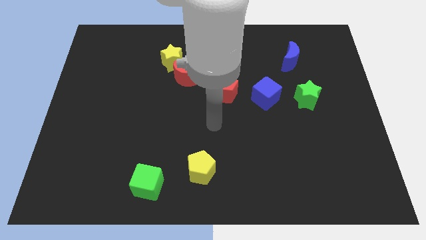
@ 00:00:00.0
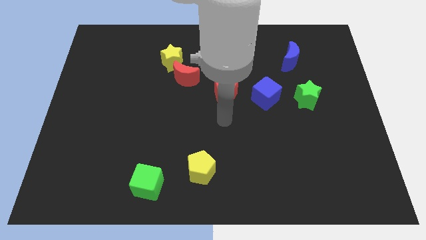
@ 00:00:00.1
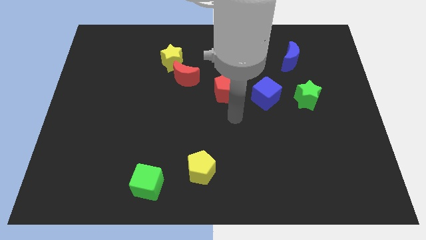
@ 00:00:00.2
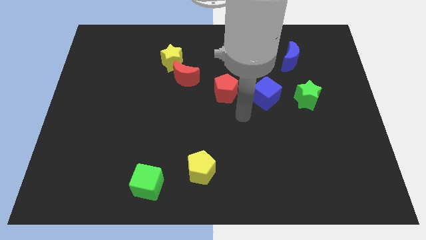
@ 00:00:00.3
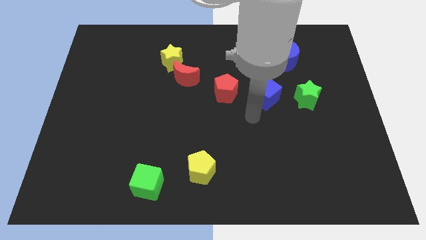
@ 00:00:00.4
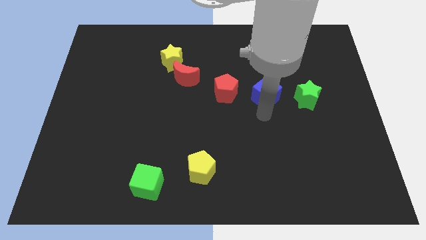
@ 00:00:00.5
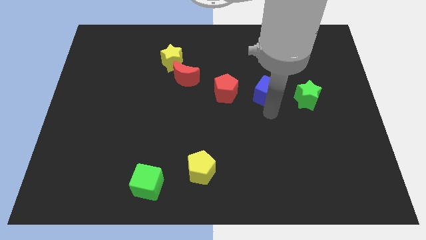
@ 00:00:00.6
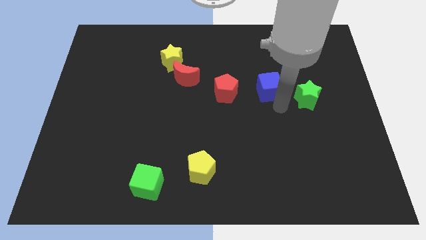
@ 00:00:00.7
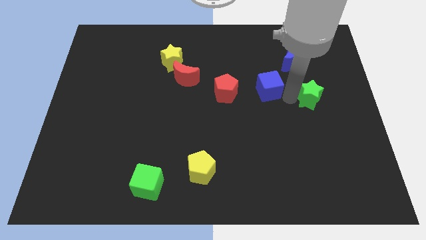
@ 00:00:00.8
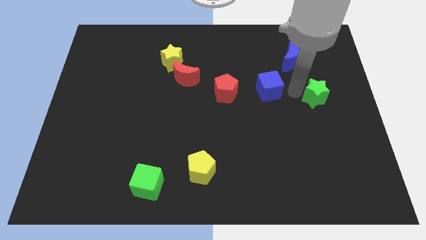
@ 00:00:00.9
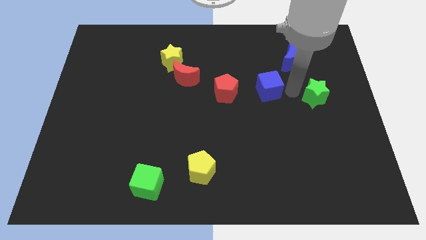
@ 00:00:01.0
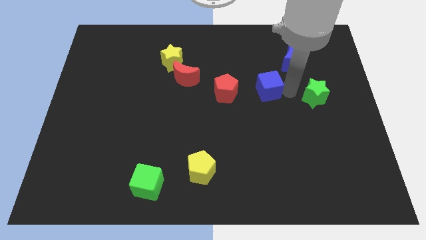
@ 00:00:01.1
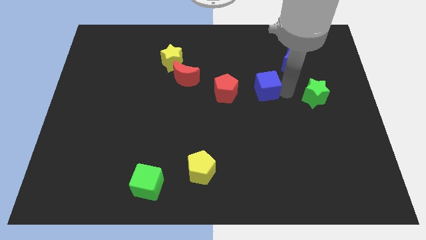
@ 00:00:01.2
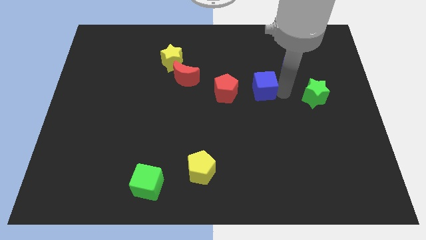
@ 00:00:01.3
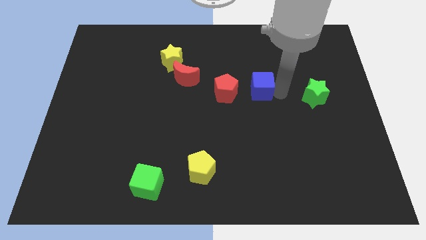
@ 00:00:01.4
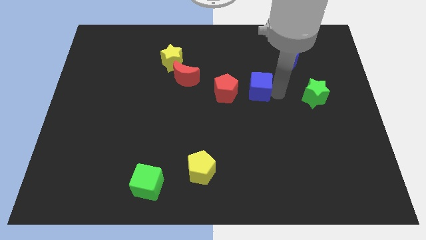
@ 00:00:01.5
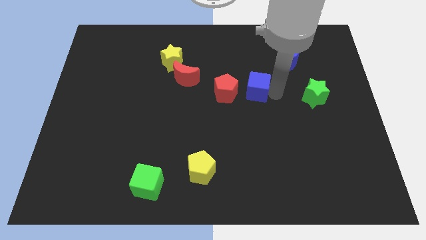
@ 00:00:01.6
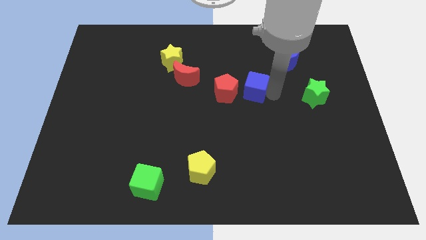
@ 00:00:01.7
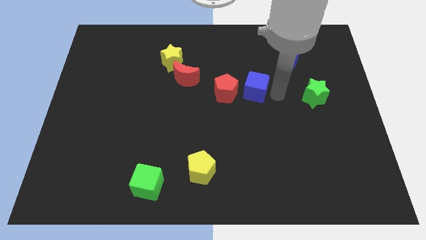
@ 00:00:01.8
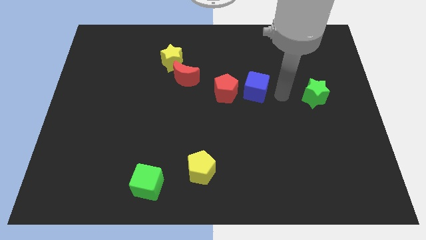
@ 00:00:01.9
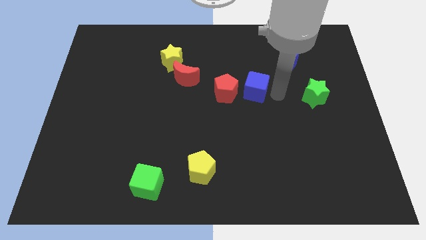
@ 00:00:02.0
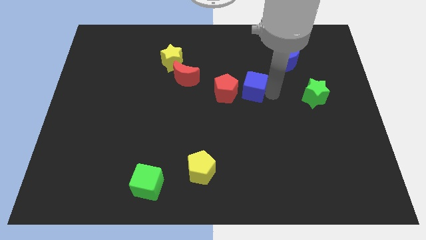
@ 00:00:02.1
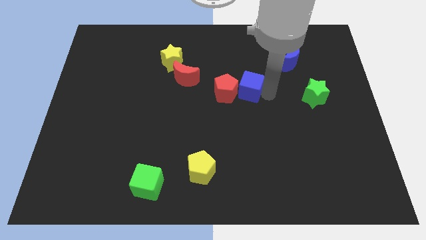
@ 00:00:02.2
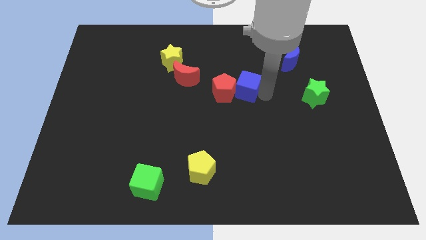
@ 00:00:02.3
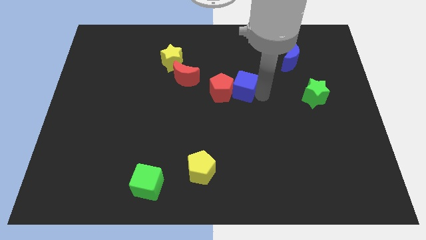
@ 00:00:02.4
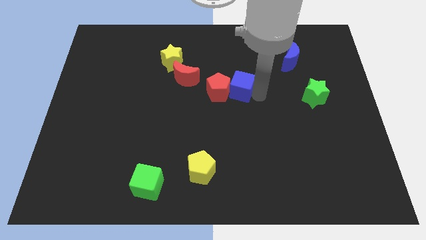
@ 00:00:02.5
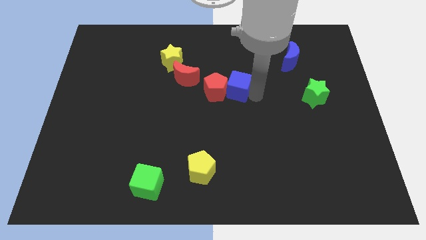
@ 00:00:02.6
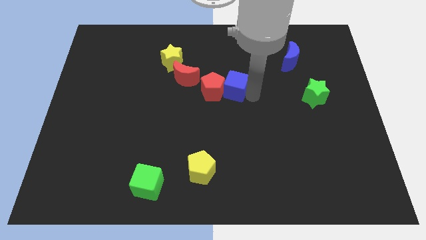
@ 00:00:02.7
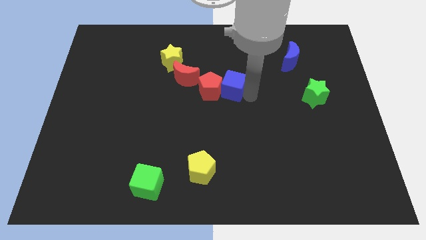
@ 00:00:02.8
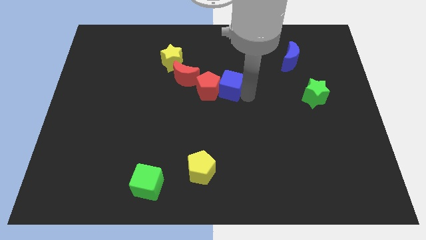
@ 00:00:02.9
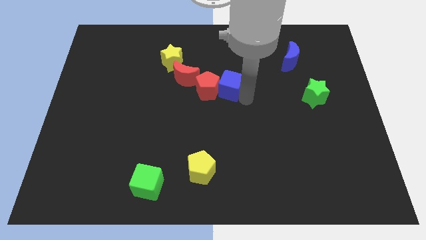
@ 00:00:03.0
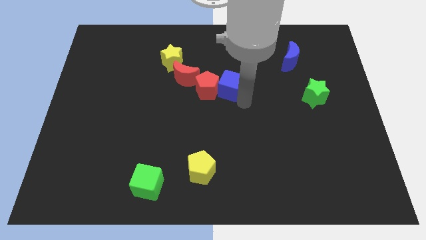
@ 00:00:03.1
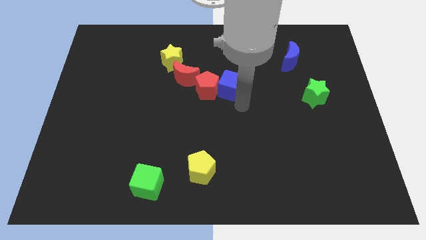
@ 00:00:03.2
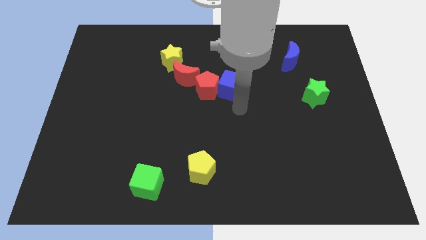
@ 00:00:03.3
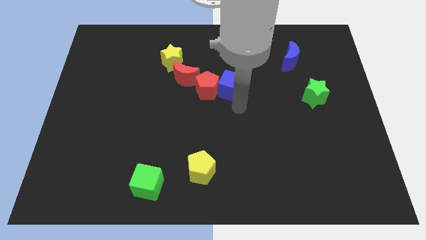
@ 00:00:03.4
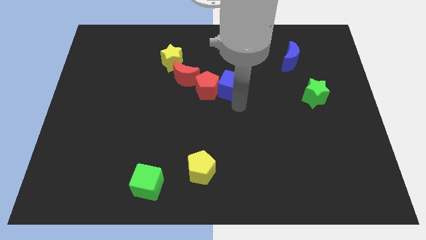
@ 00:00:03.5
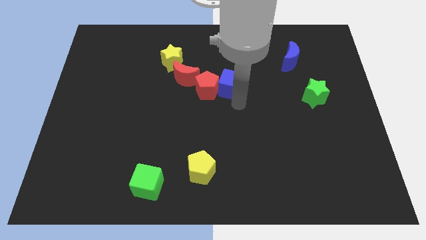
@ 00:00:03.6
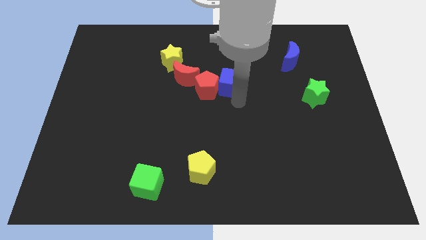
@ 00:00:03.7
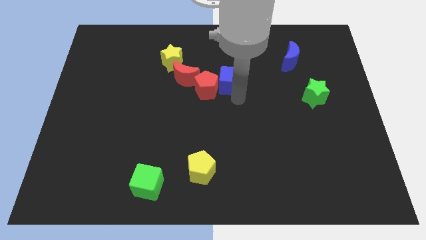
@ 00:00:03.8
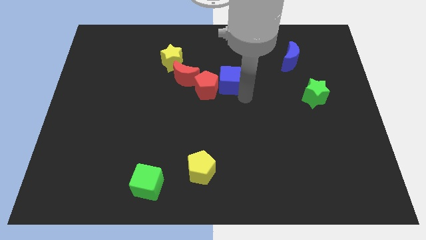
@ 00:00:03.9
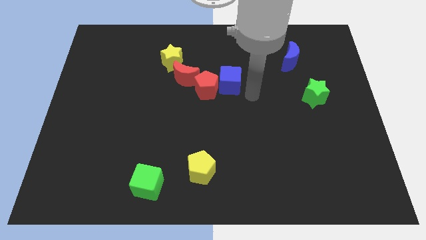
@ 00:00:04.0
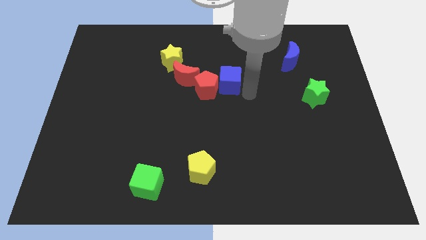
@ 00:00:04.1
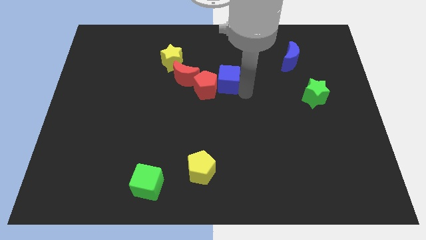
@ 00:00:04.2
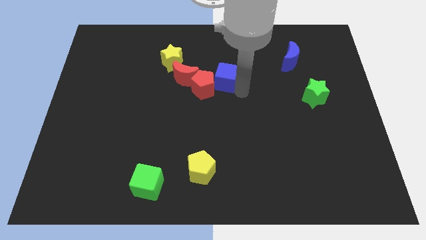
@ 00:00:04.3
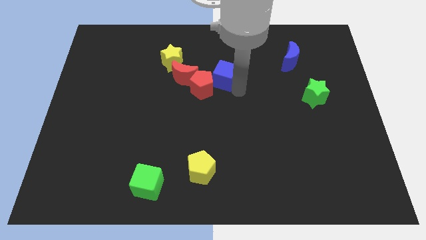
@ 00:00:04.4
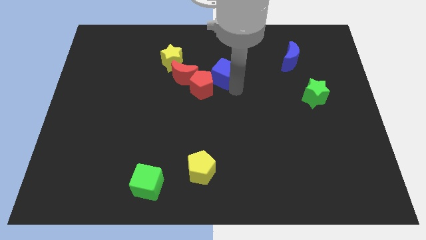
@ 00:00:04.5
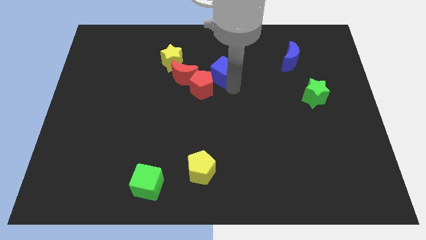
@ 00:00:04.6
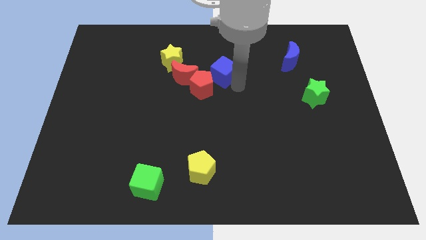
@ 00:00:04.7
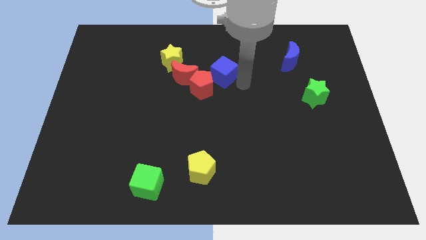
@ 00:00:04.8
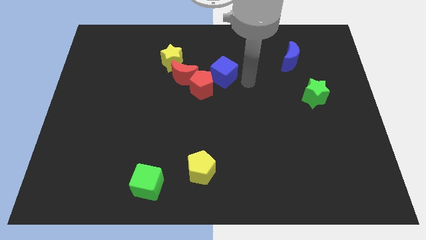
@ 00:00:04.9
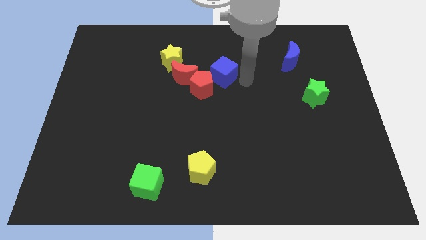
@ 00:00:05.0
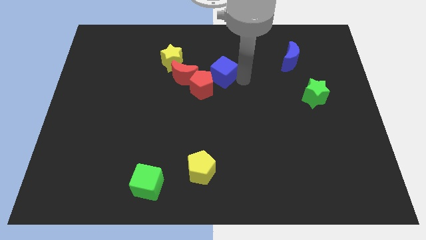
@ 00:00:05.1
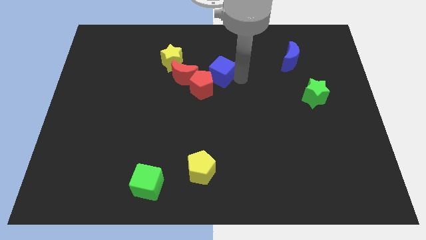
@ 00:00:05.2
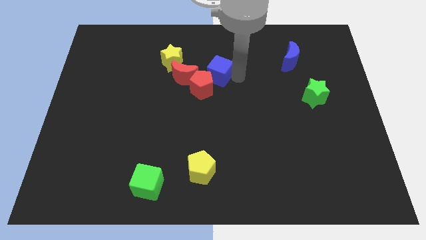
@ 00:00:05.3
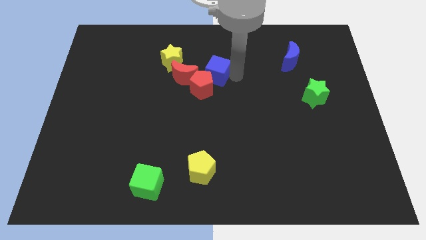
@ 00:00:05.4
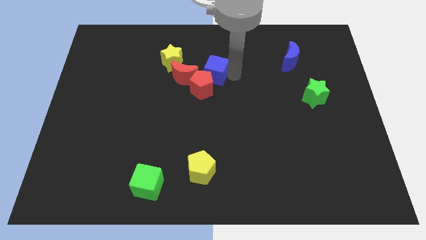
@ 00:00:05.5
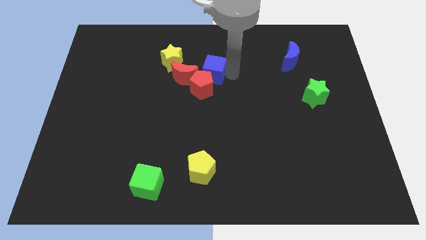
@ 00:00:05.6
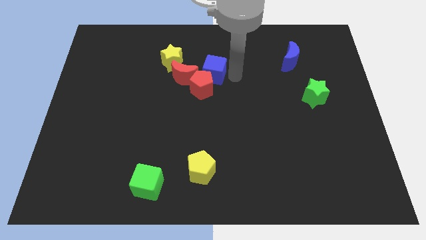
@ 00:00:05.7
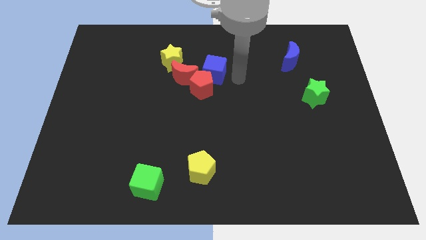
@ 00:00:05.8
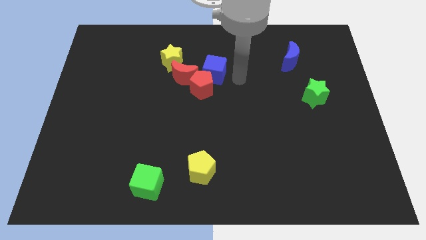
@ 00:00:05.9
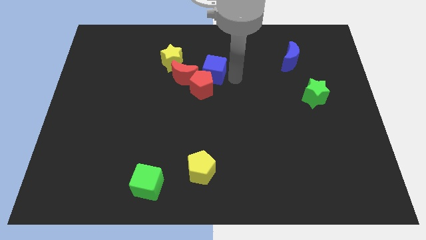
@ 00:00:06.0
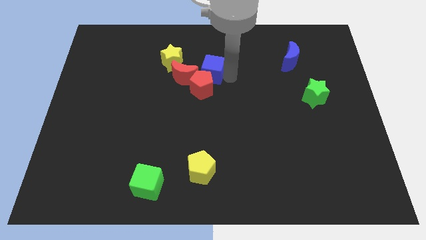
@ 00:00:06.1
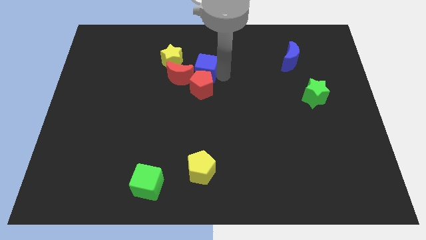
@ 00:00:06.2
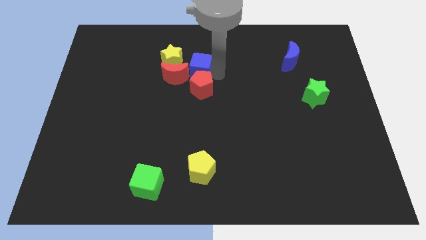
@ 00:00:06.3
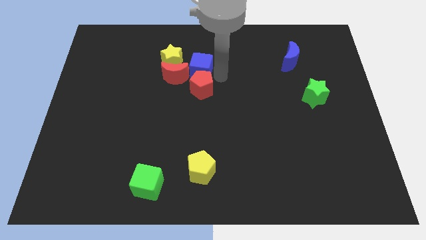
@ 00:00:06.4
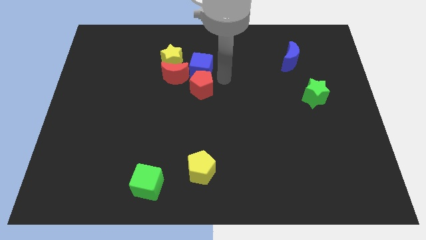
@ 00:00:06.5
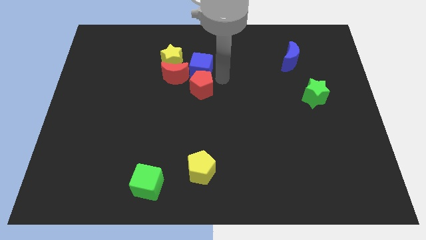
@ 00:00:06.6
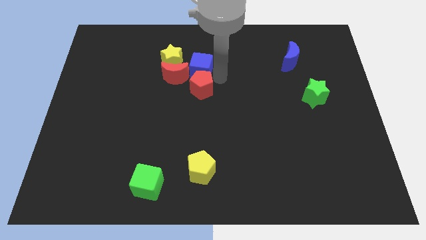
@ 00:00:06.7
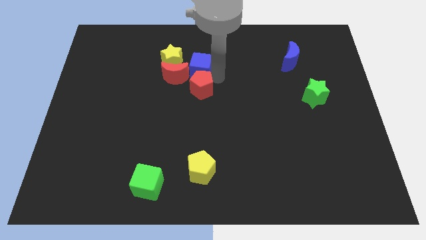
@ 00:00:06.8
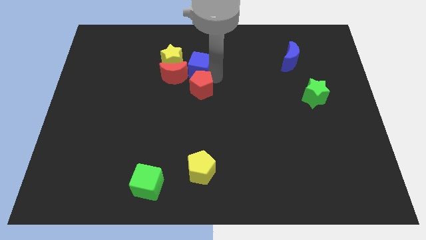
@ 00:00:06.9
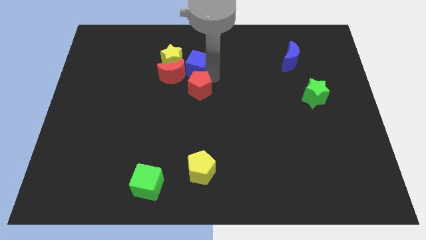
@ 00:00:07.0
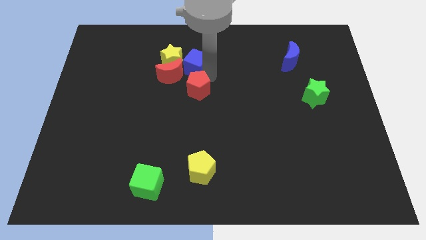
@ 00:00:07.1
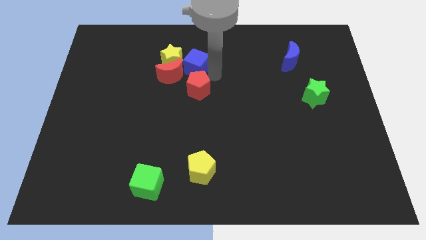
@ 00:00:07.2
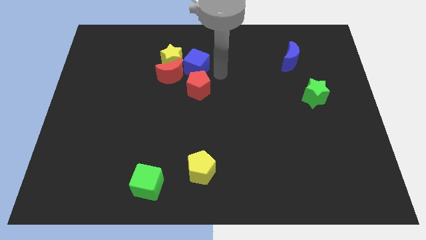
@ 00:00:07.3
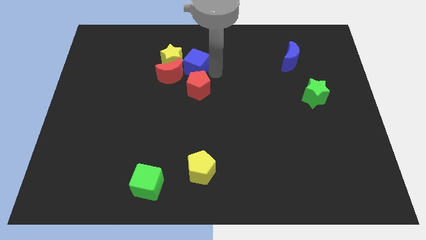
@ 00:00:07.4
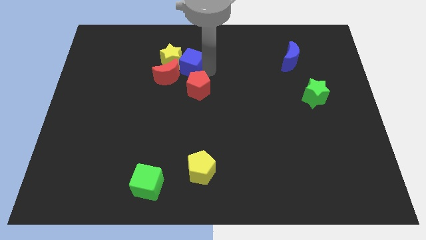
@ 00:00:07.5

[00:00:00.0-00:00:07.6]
slide the blue cube next to the yellow star
